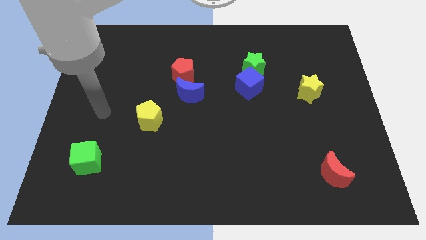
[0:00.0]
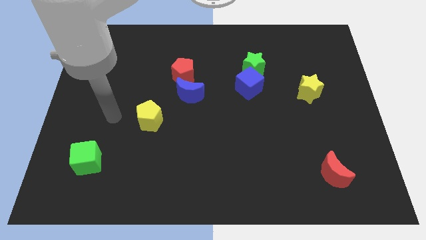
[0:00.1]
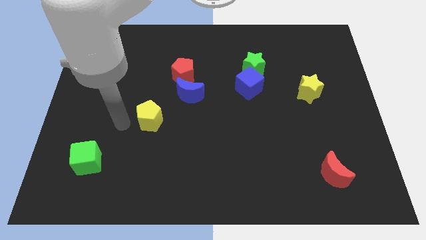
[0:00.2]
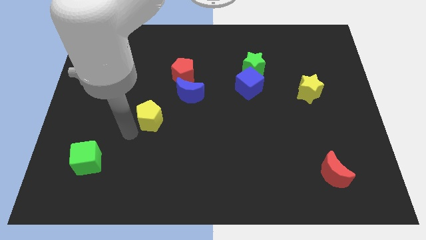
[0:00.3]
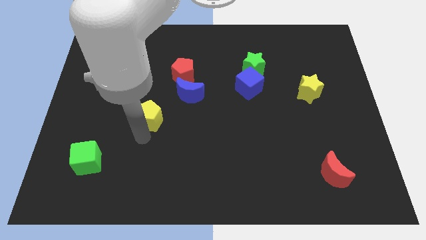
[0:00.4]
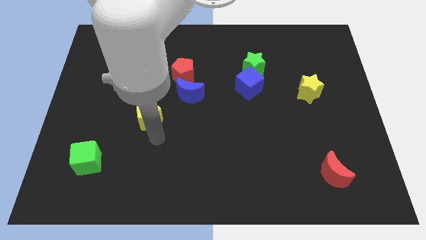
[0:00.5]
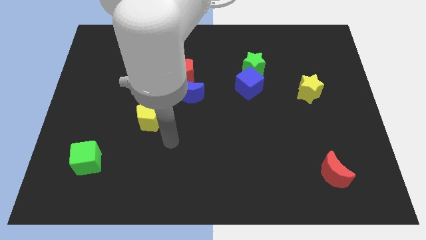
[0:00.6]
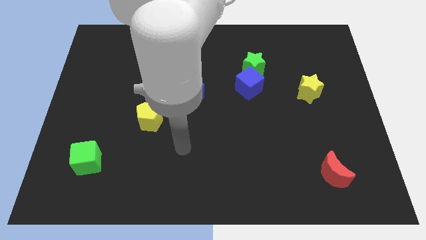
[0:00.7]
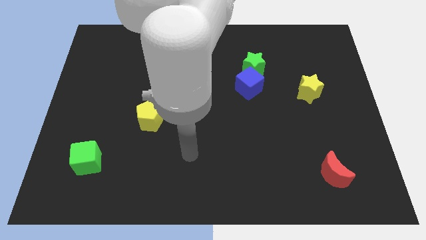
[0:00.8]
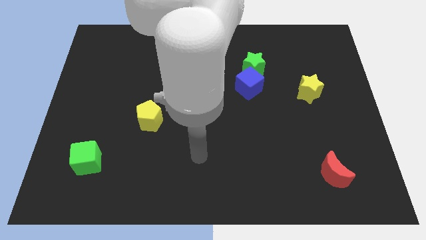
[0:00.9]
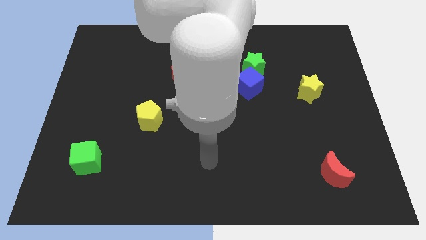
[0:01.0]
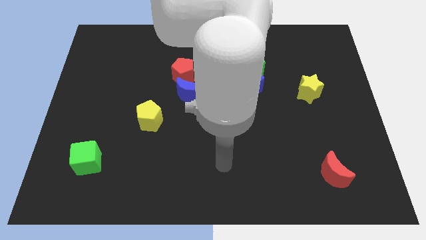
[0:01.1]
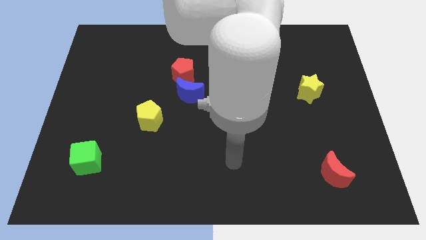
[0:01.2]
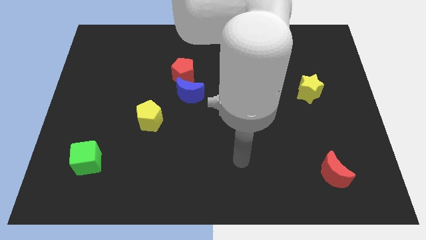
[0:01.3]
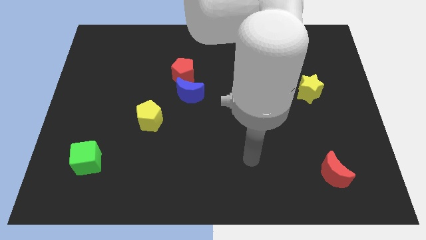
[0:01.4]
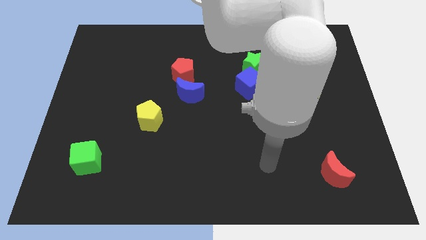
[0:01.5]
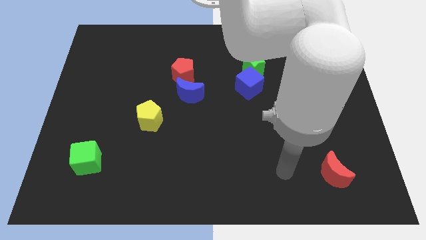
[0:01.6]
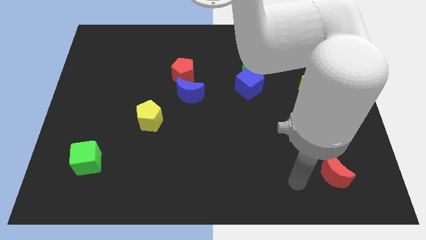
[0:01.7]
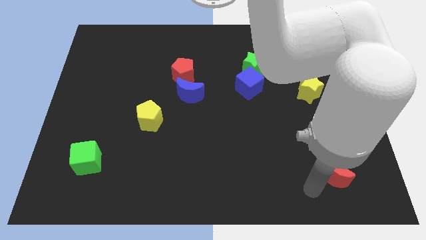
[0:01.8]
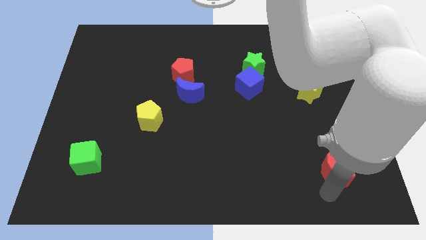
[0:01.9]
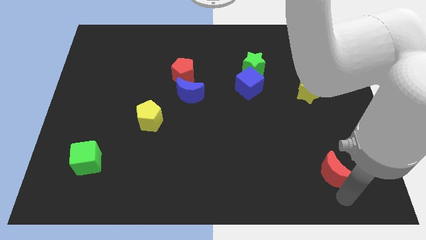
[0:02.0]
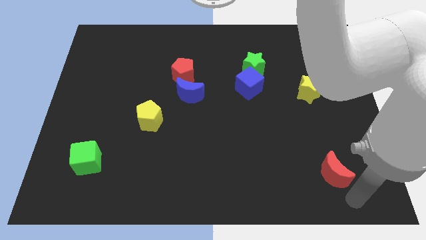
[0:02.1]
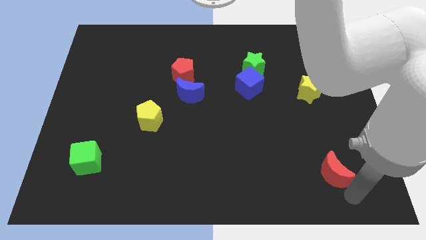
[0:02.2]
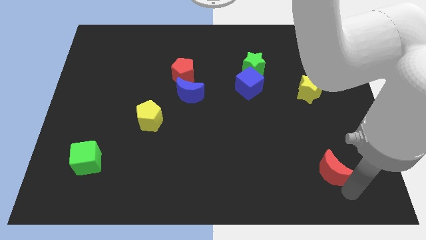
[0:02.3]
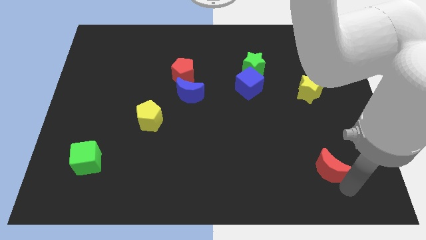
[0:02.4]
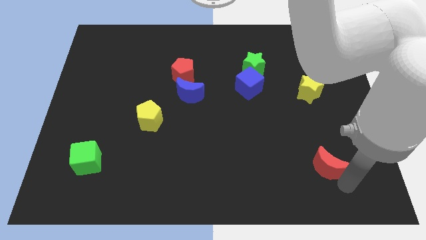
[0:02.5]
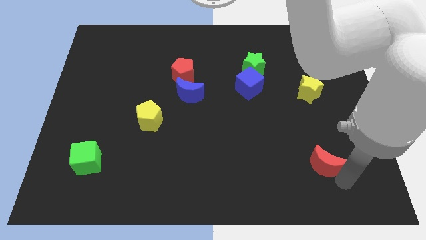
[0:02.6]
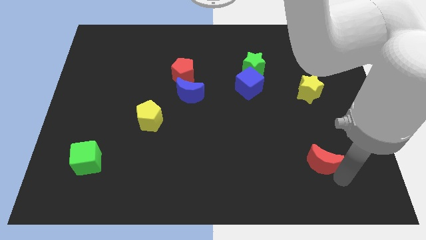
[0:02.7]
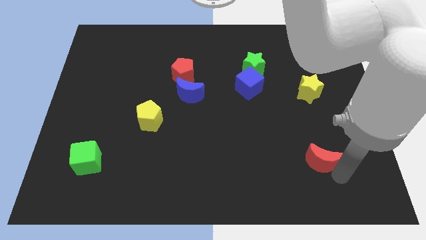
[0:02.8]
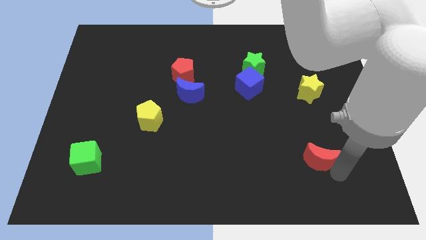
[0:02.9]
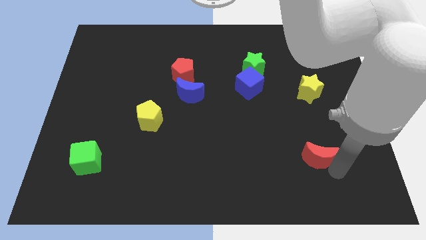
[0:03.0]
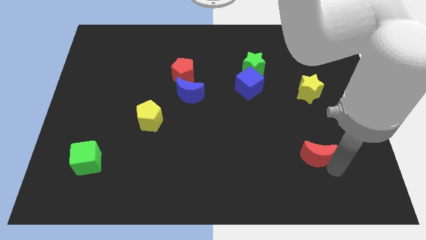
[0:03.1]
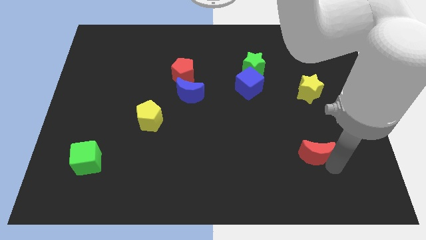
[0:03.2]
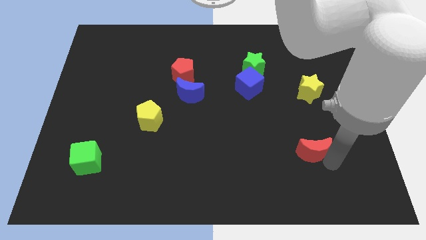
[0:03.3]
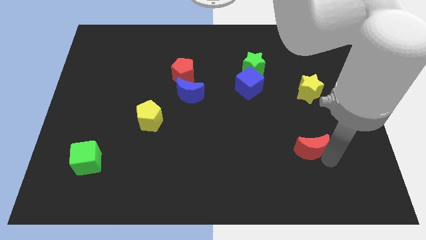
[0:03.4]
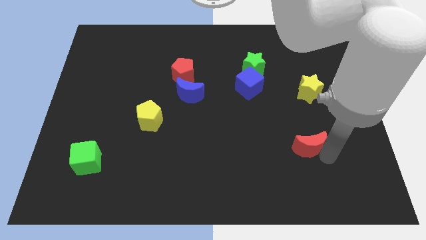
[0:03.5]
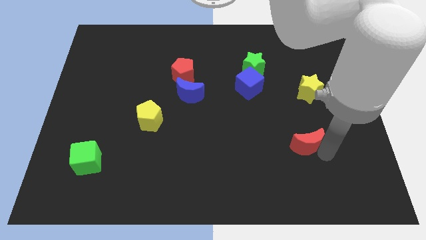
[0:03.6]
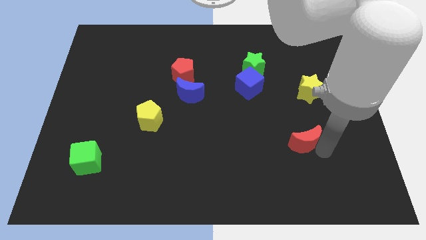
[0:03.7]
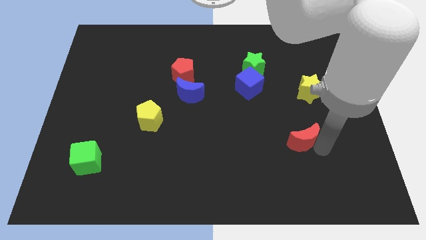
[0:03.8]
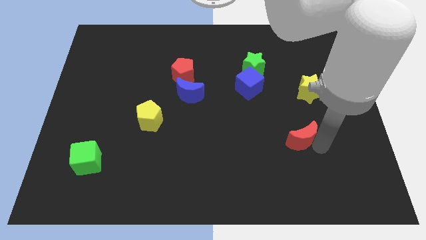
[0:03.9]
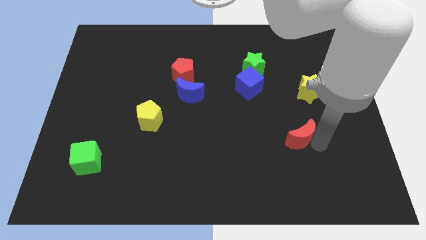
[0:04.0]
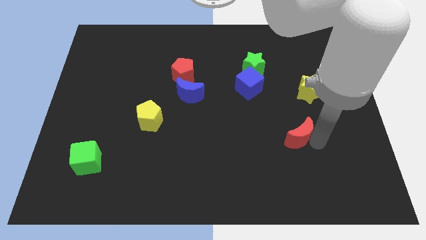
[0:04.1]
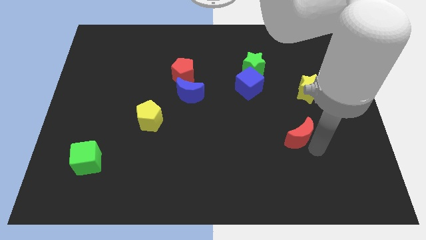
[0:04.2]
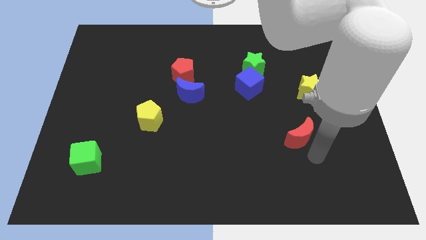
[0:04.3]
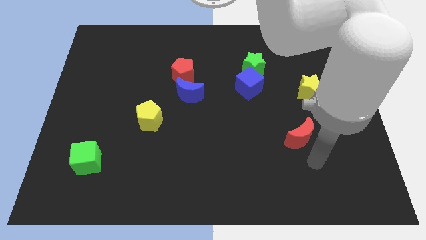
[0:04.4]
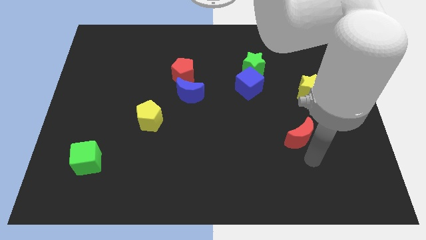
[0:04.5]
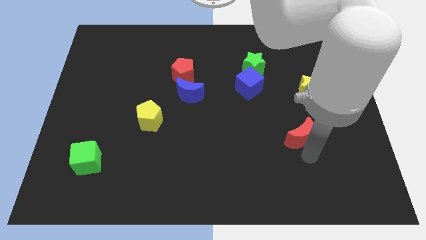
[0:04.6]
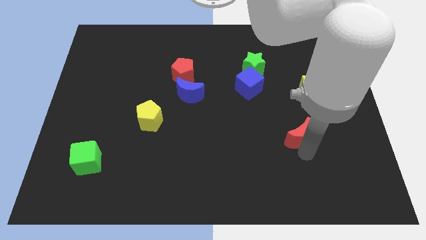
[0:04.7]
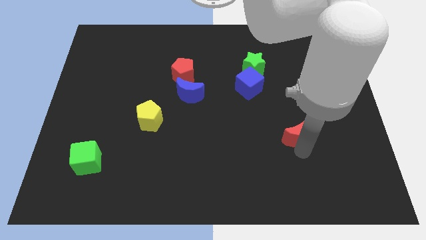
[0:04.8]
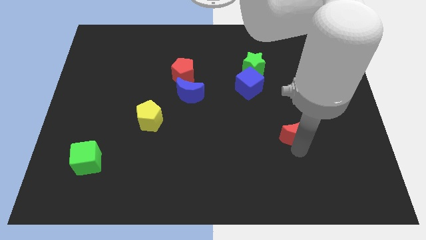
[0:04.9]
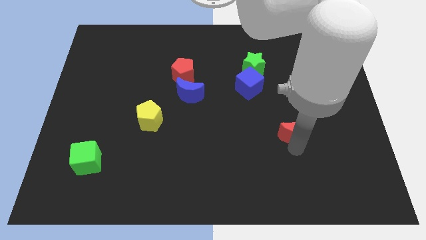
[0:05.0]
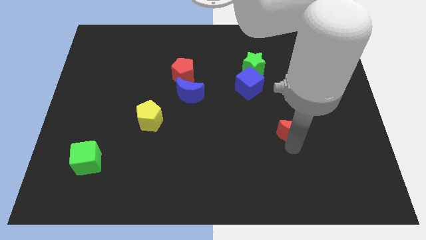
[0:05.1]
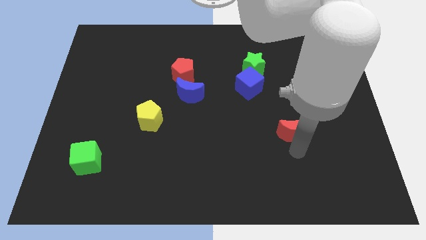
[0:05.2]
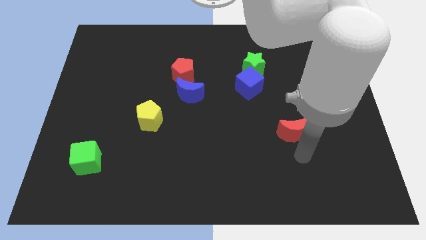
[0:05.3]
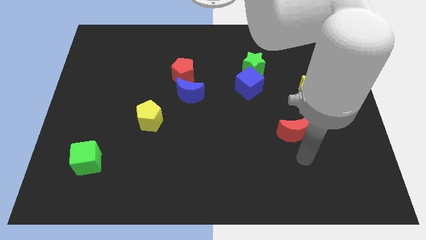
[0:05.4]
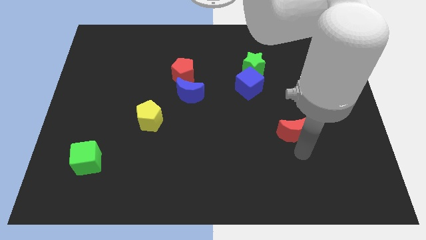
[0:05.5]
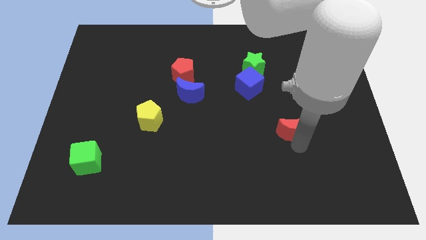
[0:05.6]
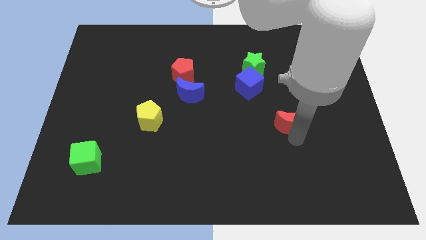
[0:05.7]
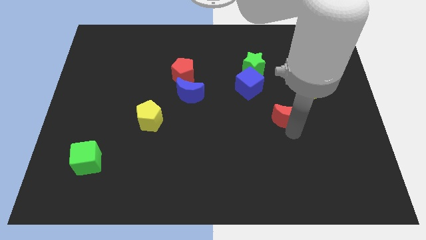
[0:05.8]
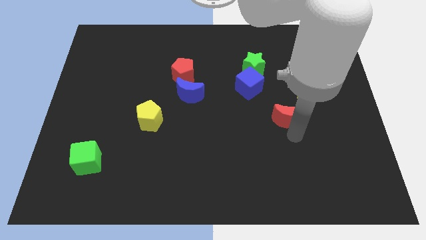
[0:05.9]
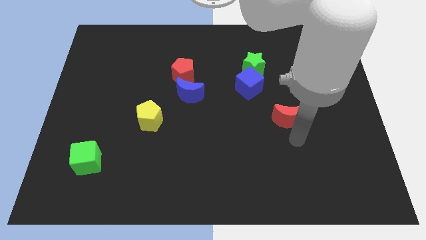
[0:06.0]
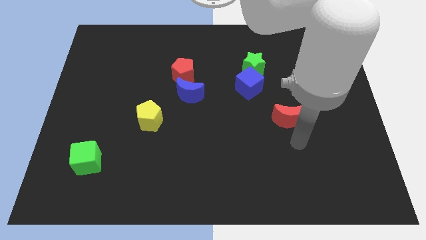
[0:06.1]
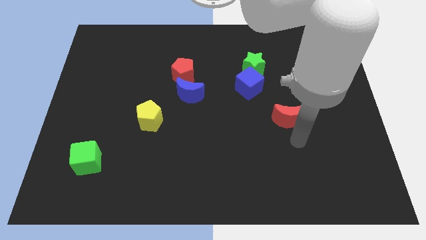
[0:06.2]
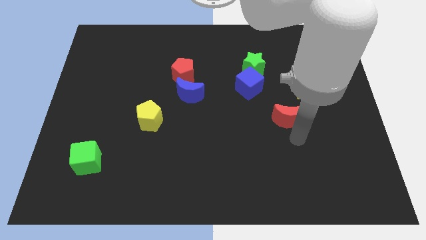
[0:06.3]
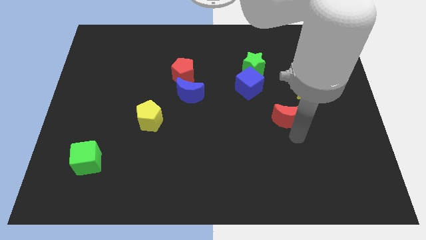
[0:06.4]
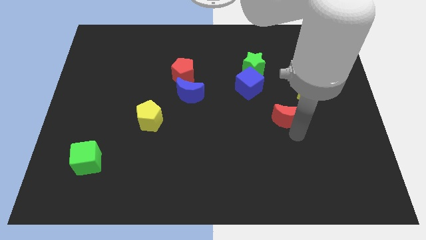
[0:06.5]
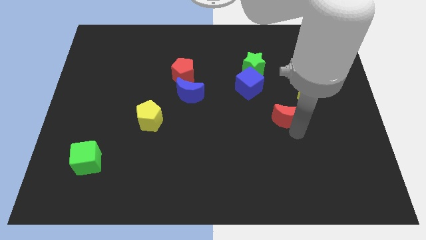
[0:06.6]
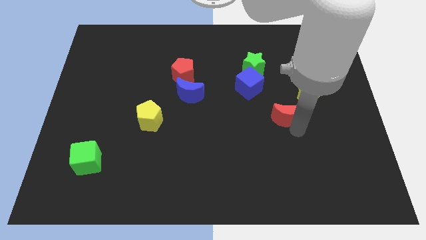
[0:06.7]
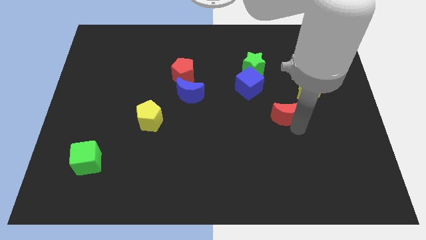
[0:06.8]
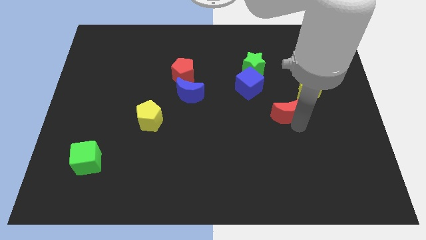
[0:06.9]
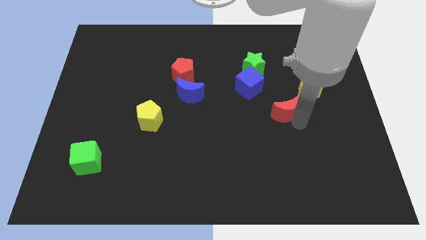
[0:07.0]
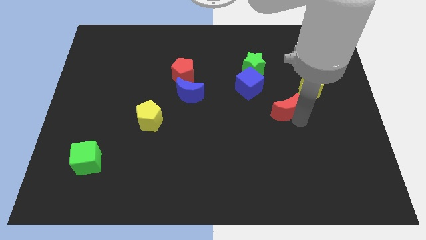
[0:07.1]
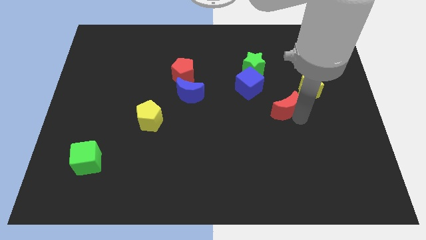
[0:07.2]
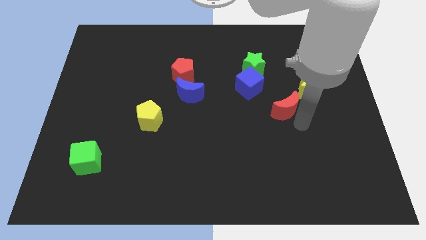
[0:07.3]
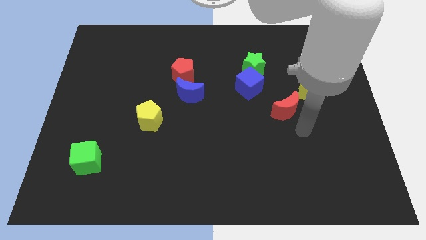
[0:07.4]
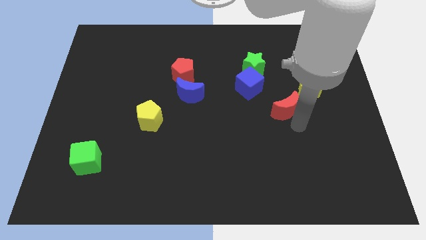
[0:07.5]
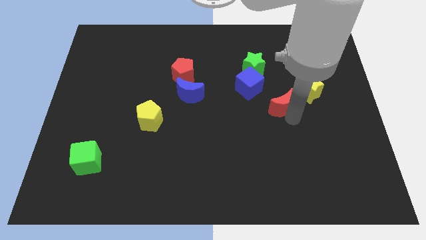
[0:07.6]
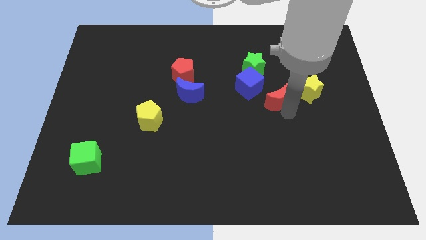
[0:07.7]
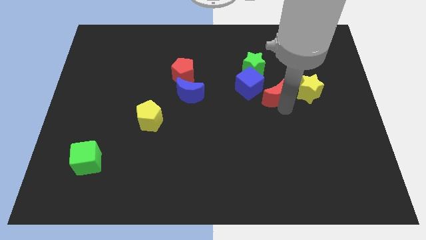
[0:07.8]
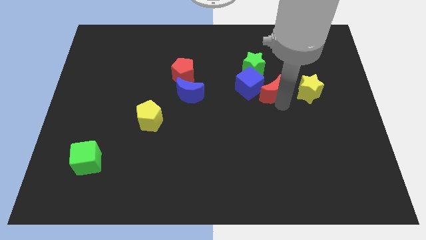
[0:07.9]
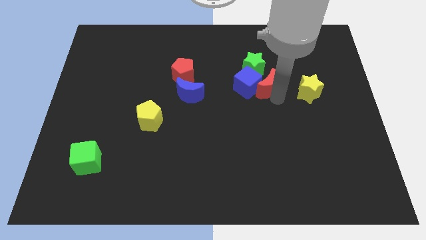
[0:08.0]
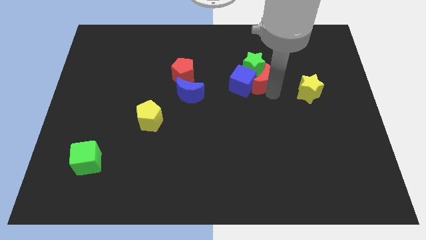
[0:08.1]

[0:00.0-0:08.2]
move the red moon to the green star

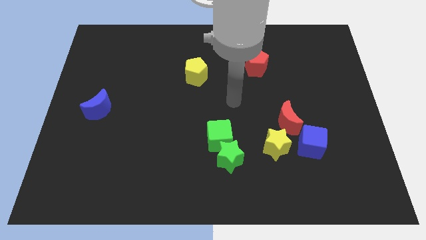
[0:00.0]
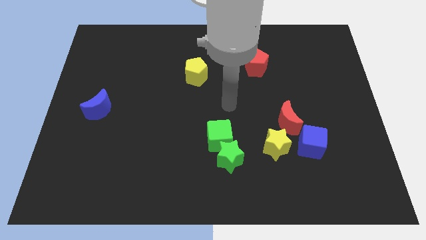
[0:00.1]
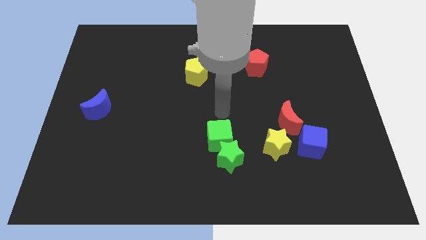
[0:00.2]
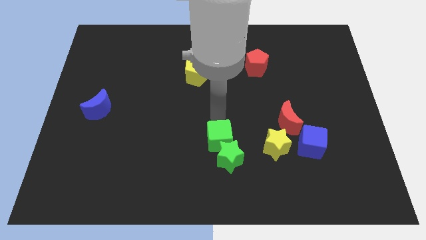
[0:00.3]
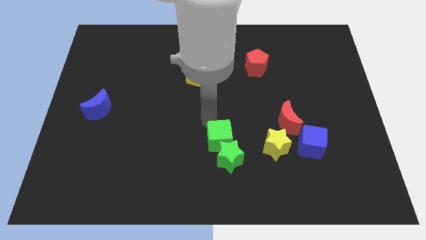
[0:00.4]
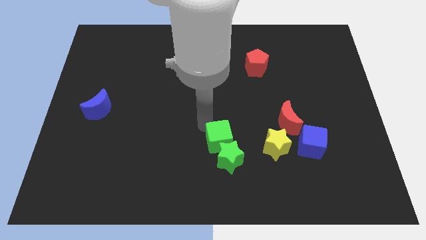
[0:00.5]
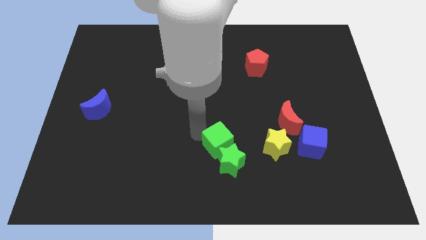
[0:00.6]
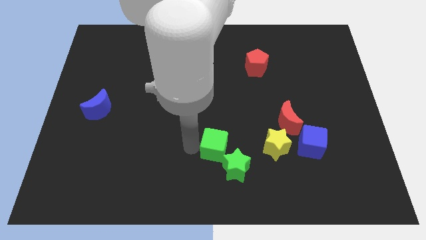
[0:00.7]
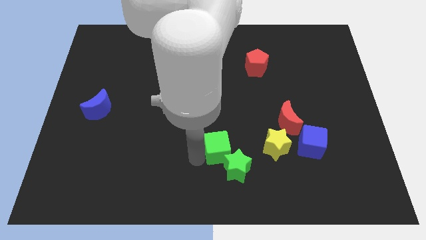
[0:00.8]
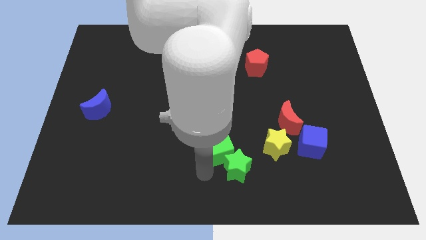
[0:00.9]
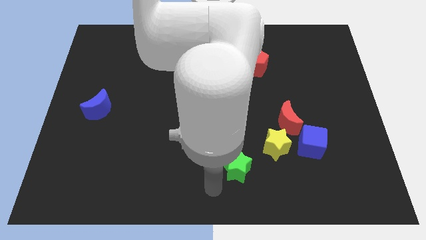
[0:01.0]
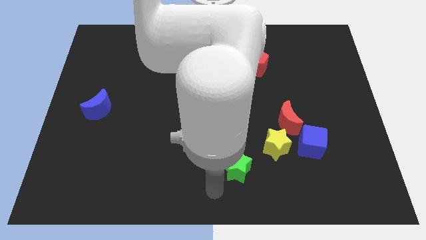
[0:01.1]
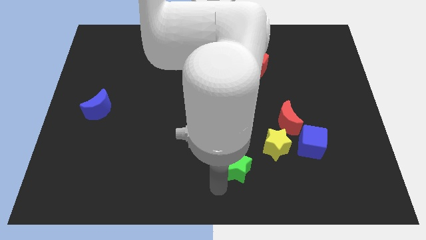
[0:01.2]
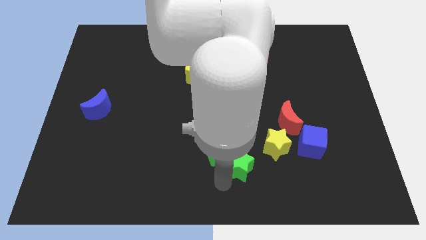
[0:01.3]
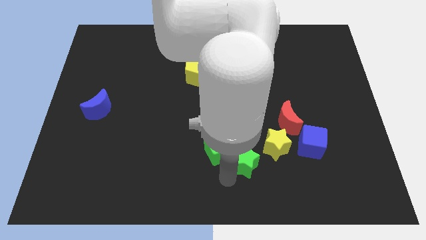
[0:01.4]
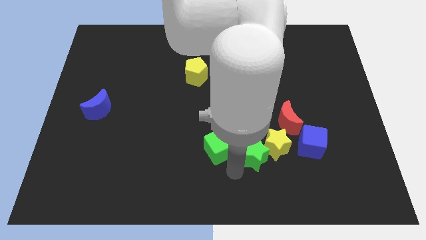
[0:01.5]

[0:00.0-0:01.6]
push the green star to the yellow star
